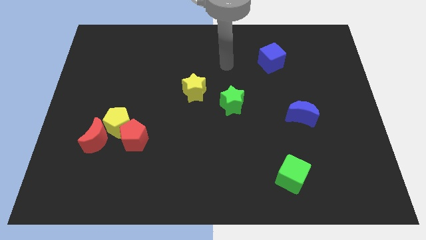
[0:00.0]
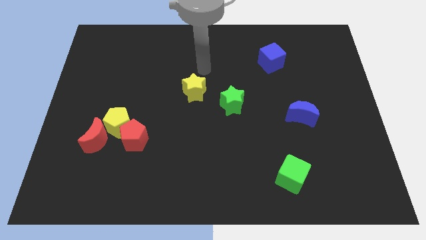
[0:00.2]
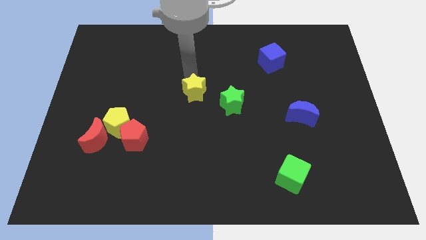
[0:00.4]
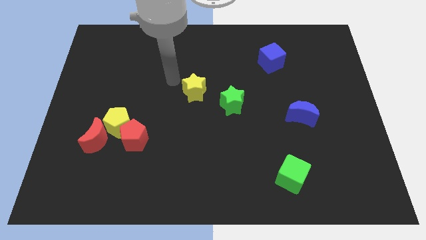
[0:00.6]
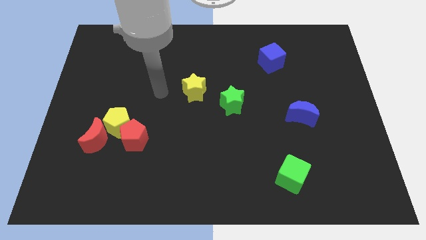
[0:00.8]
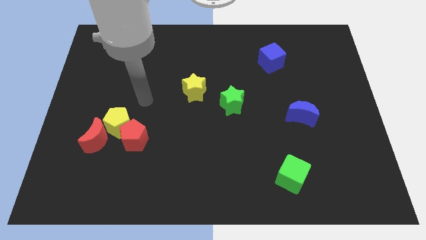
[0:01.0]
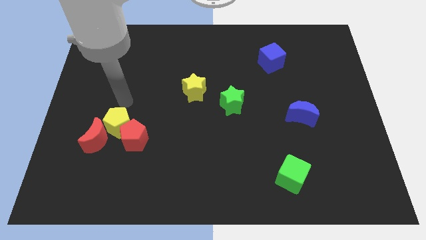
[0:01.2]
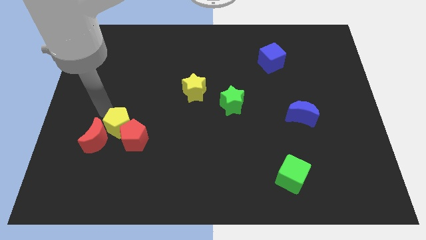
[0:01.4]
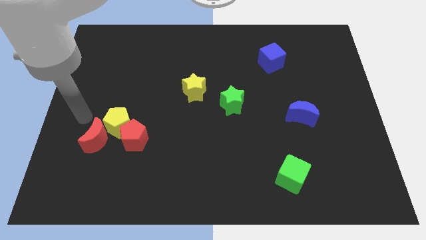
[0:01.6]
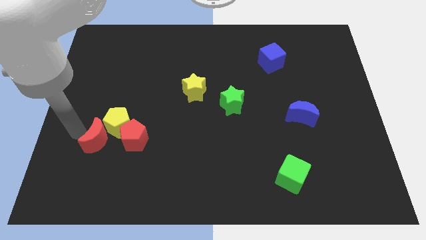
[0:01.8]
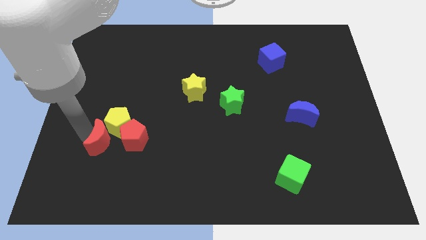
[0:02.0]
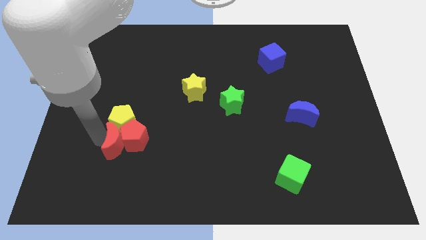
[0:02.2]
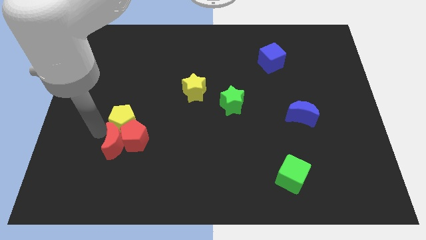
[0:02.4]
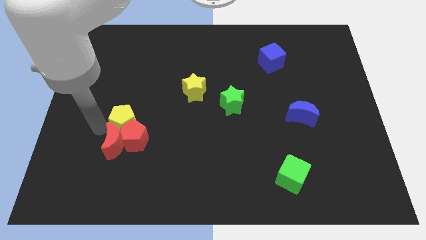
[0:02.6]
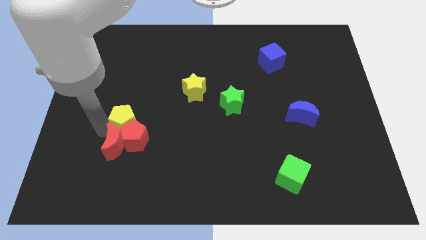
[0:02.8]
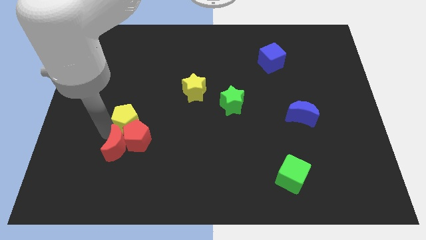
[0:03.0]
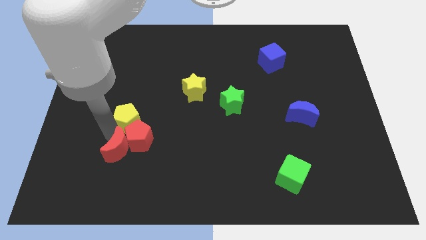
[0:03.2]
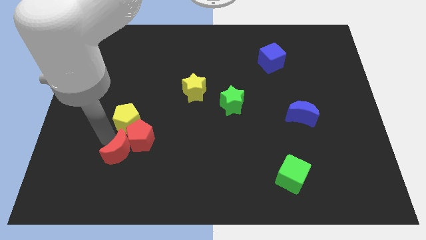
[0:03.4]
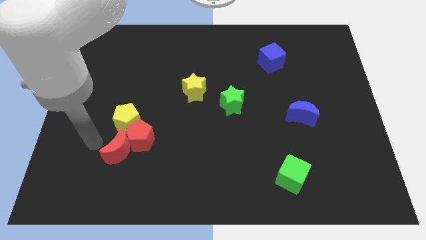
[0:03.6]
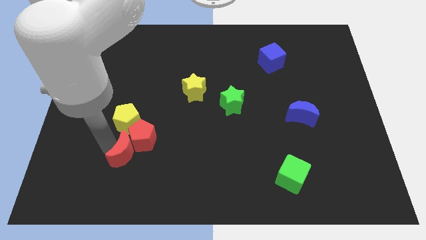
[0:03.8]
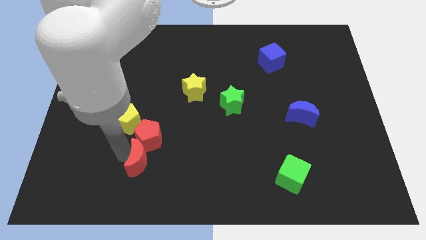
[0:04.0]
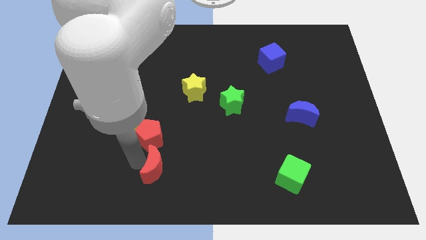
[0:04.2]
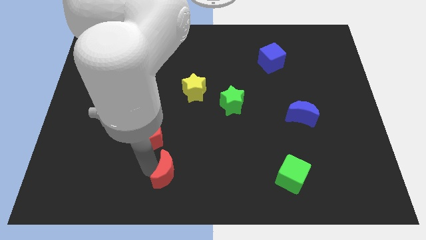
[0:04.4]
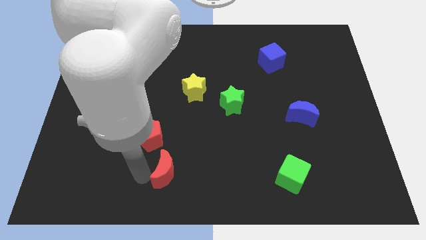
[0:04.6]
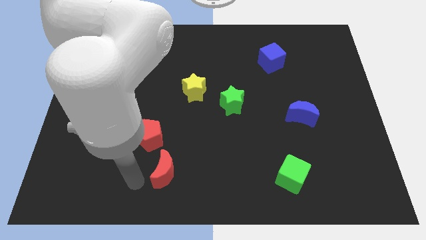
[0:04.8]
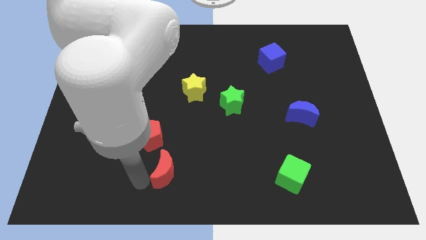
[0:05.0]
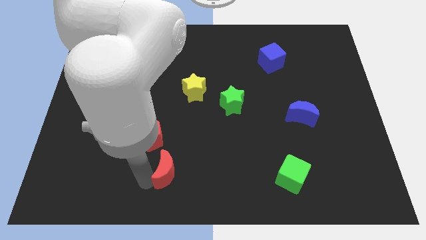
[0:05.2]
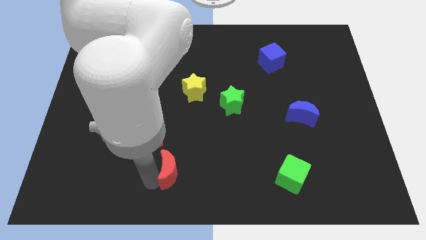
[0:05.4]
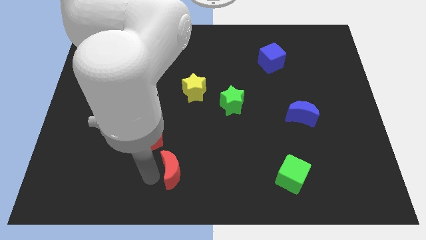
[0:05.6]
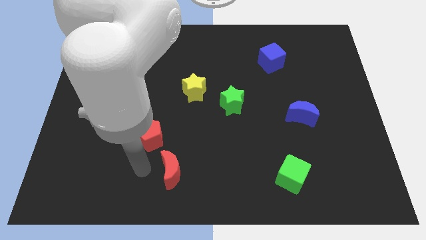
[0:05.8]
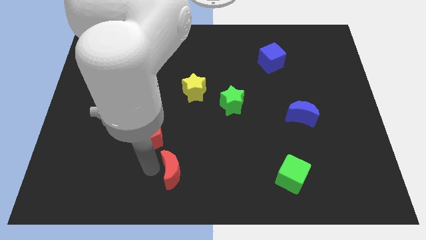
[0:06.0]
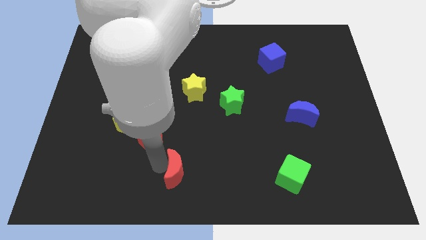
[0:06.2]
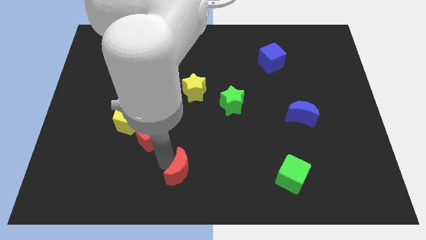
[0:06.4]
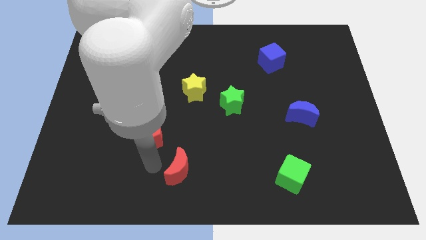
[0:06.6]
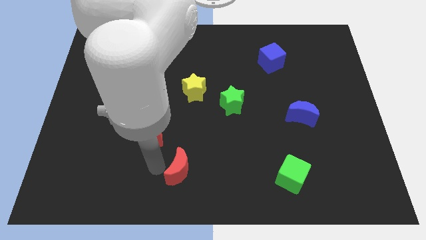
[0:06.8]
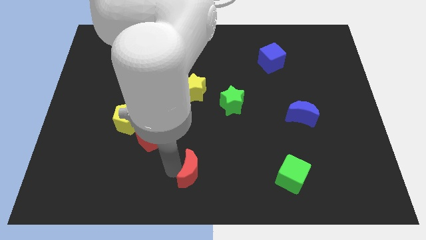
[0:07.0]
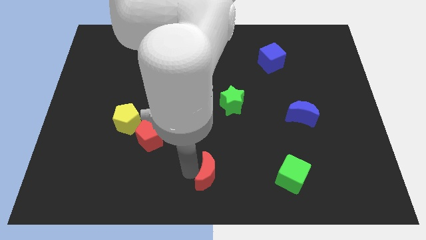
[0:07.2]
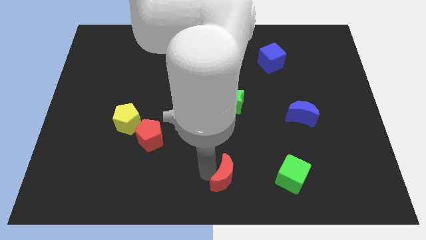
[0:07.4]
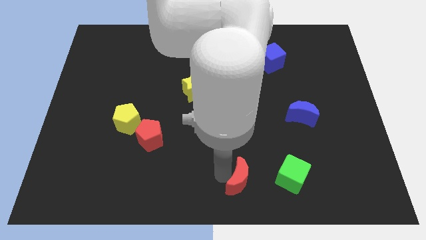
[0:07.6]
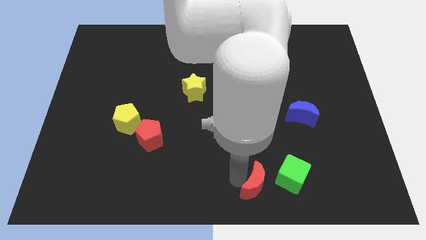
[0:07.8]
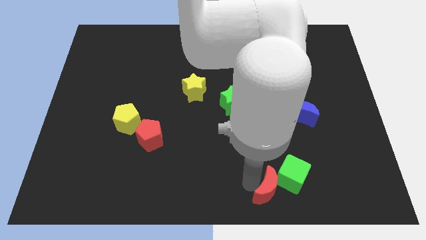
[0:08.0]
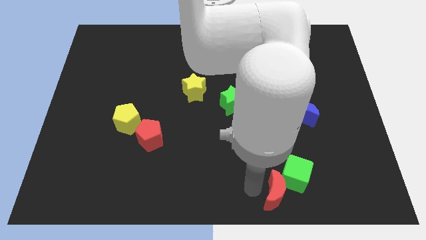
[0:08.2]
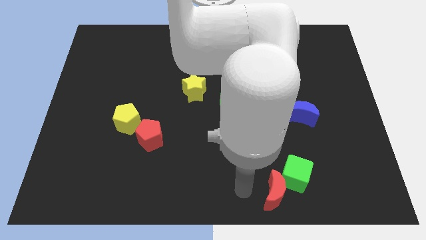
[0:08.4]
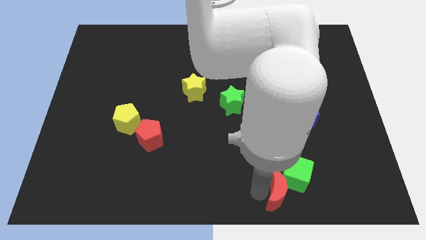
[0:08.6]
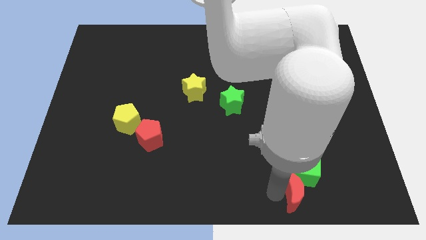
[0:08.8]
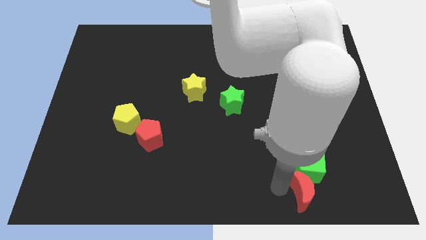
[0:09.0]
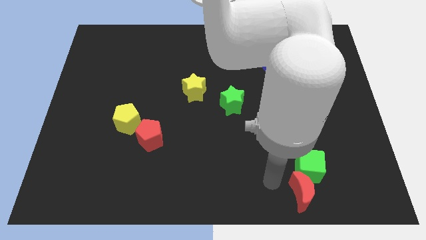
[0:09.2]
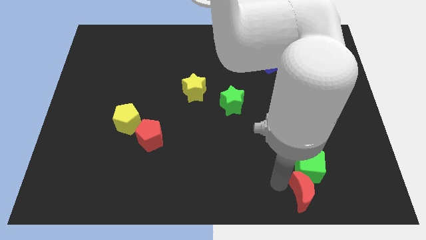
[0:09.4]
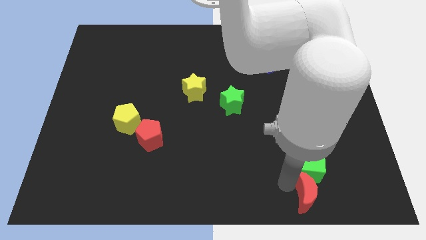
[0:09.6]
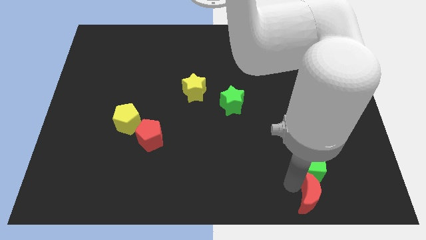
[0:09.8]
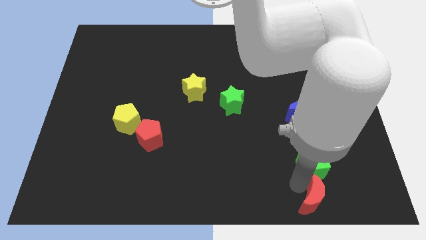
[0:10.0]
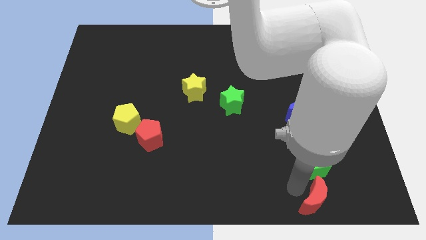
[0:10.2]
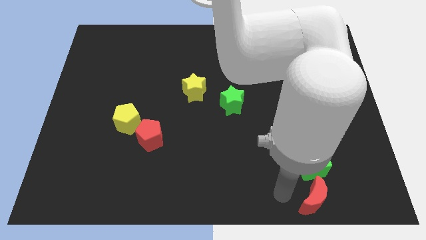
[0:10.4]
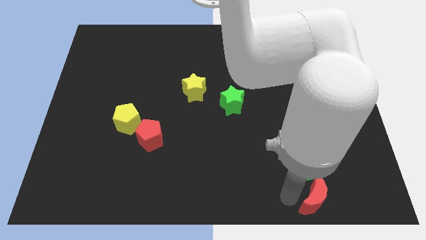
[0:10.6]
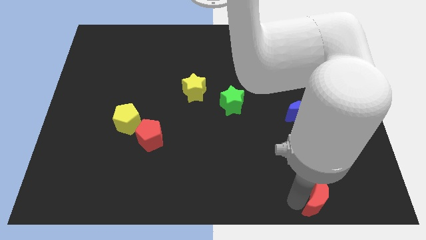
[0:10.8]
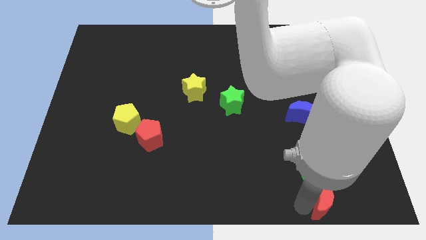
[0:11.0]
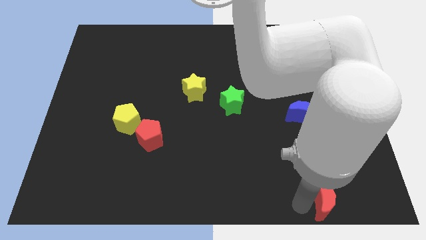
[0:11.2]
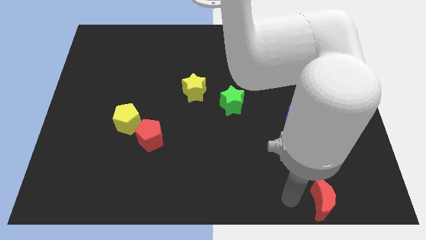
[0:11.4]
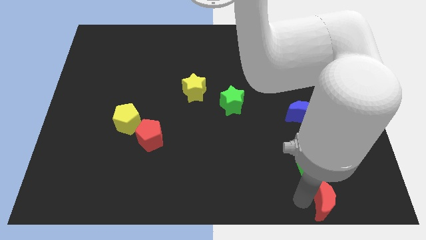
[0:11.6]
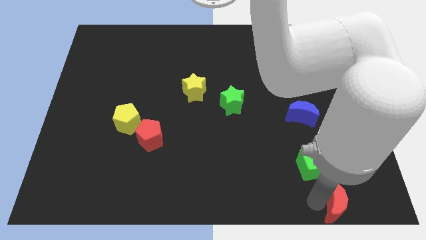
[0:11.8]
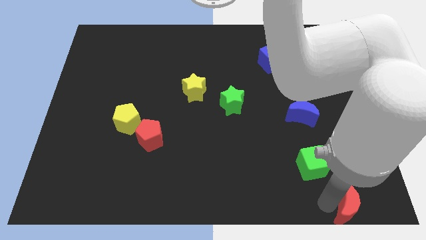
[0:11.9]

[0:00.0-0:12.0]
put the red moon to the bottom right
